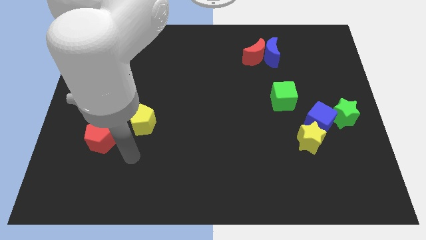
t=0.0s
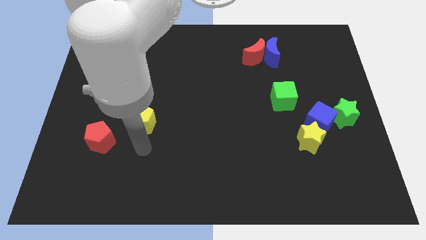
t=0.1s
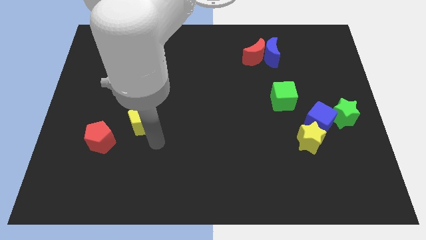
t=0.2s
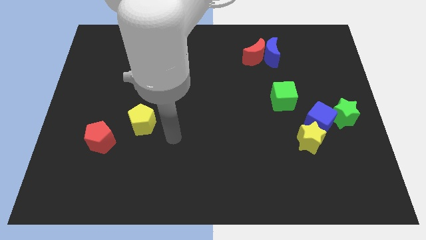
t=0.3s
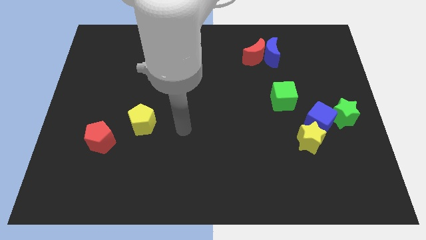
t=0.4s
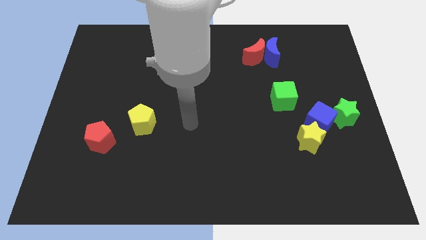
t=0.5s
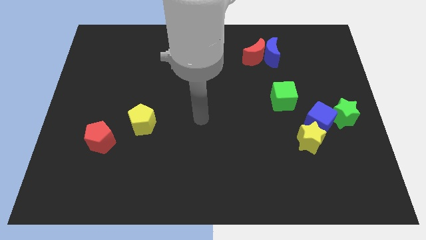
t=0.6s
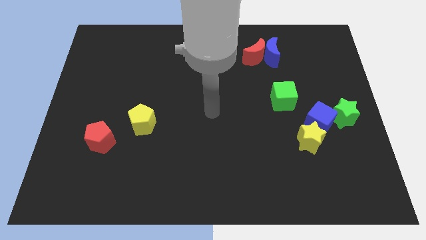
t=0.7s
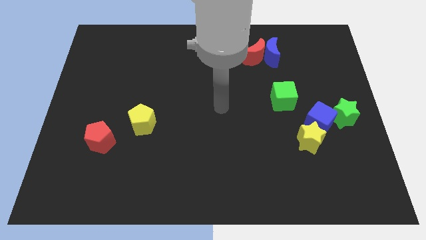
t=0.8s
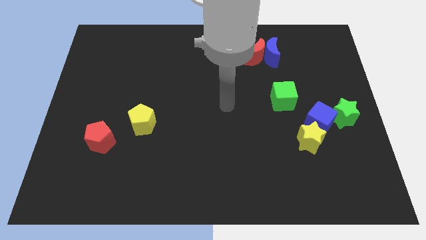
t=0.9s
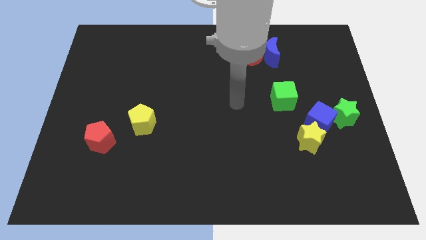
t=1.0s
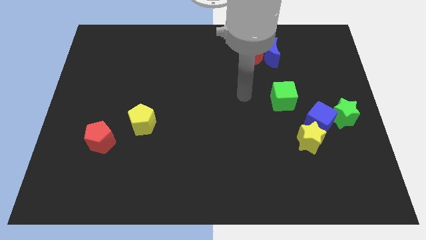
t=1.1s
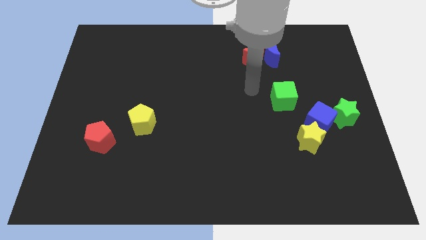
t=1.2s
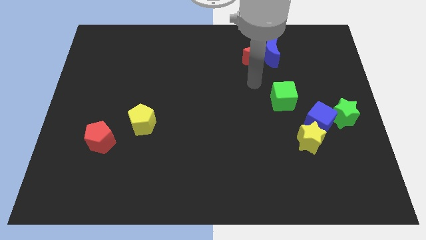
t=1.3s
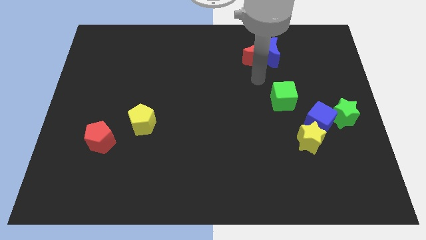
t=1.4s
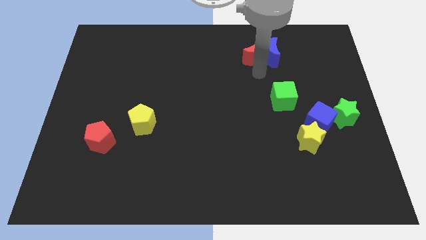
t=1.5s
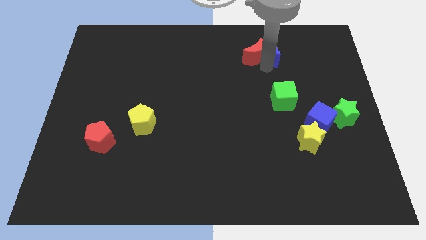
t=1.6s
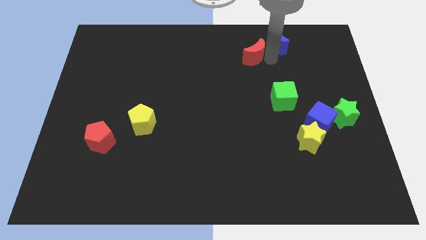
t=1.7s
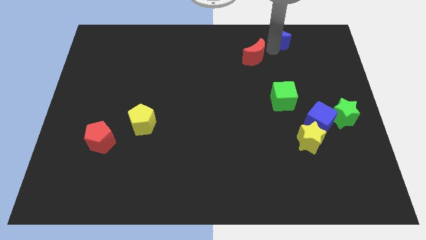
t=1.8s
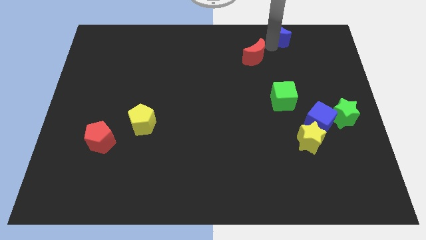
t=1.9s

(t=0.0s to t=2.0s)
pull the red moon apart from the blue moon

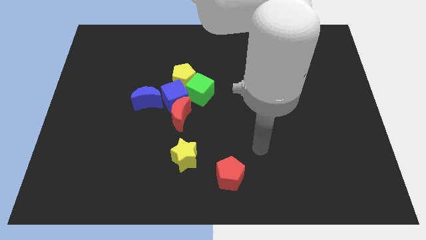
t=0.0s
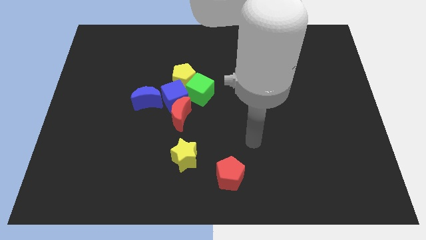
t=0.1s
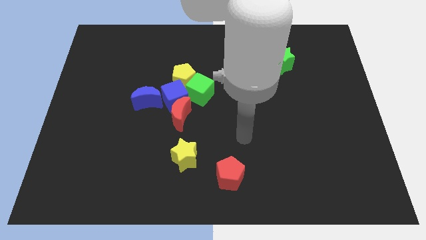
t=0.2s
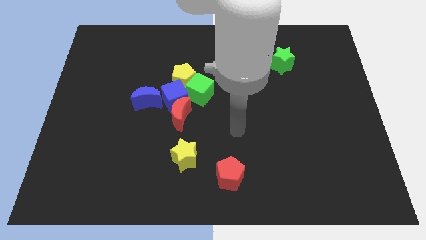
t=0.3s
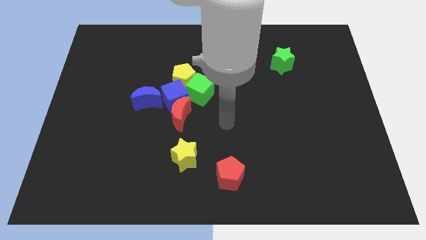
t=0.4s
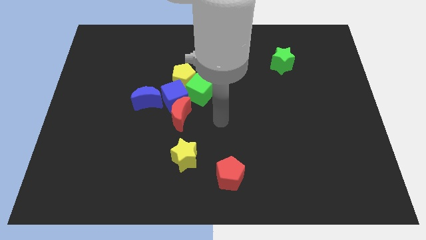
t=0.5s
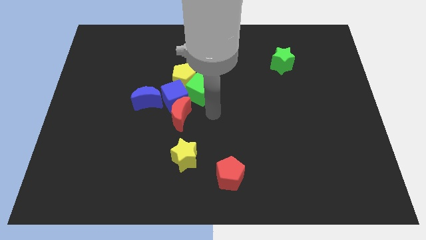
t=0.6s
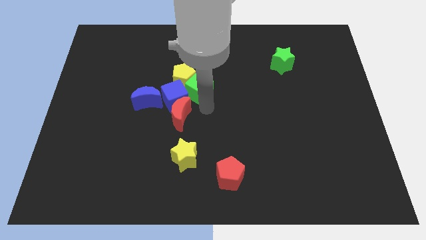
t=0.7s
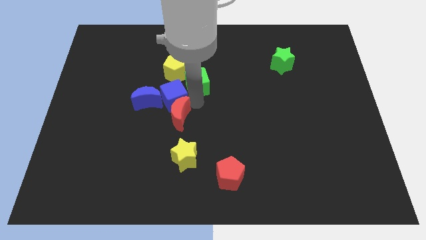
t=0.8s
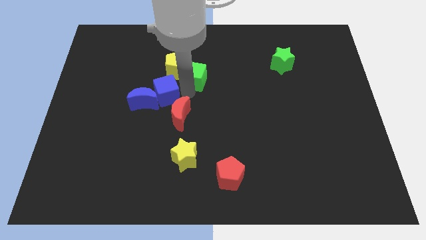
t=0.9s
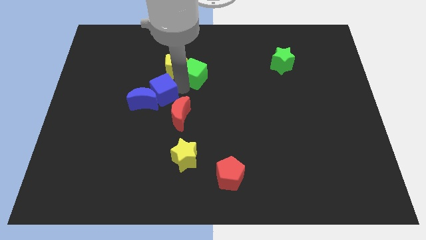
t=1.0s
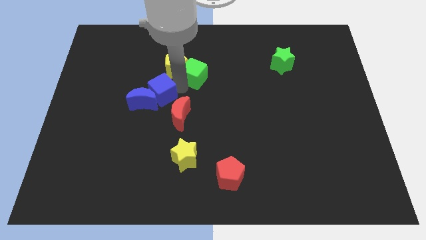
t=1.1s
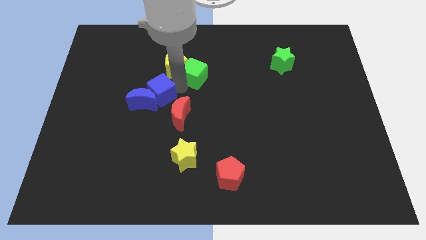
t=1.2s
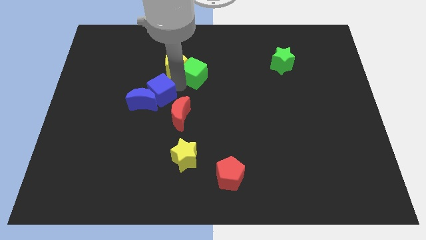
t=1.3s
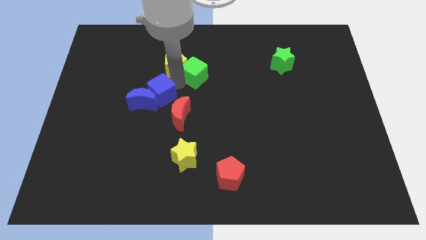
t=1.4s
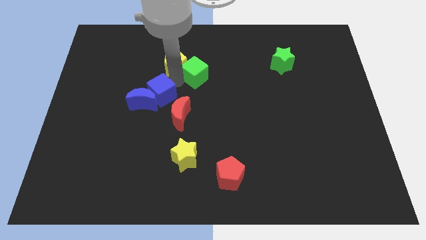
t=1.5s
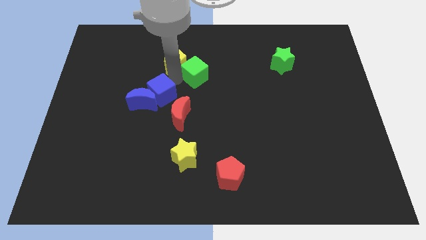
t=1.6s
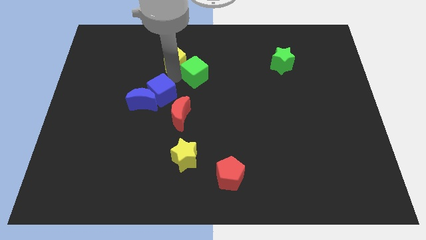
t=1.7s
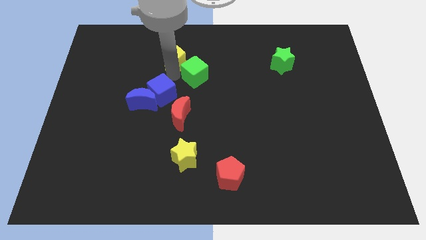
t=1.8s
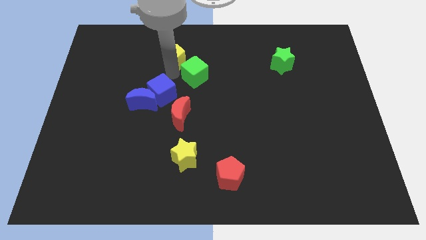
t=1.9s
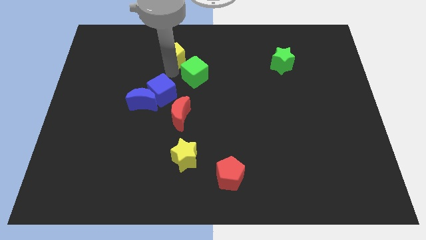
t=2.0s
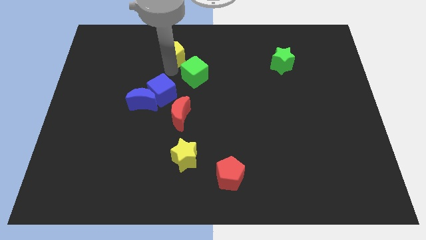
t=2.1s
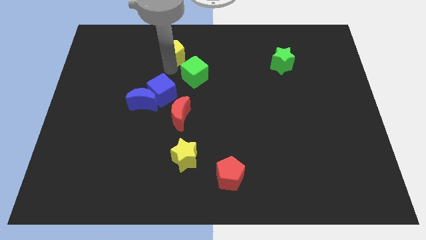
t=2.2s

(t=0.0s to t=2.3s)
move the yellow pentagon away from the green cube and blue cube

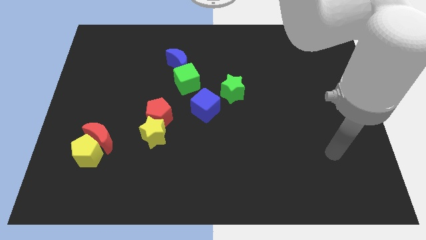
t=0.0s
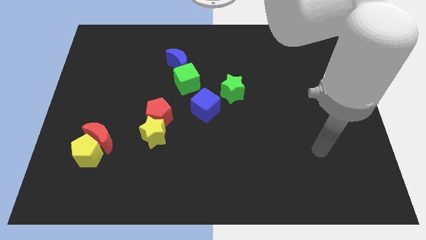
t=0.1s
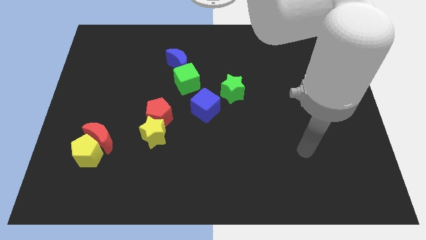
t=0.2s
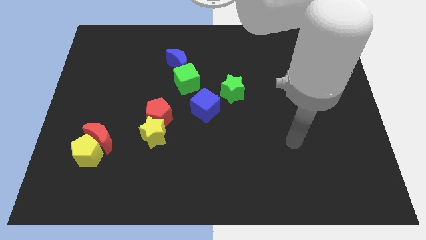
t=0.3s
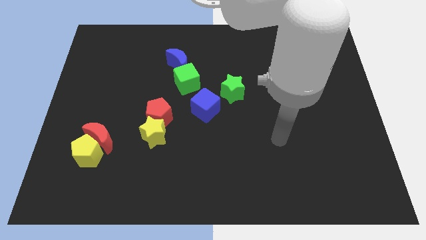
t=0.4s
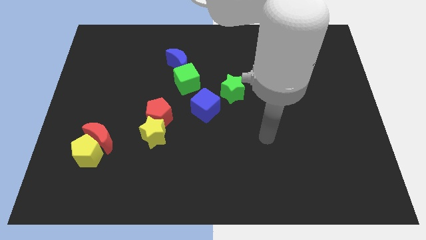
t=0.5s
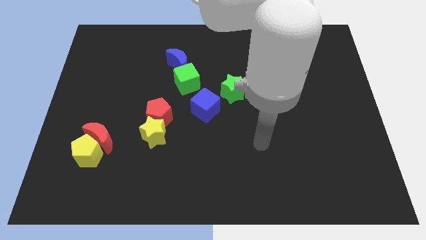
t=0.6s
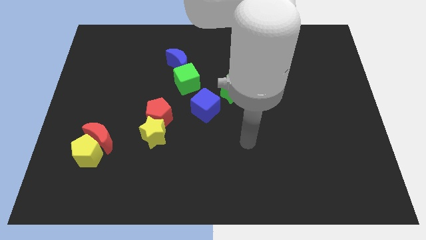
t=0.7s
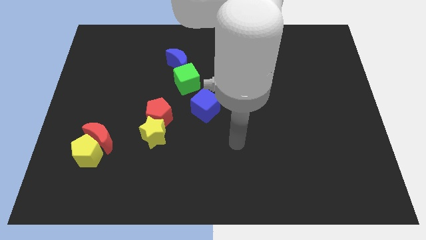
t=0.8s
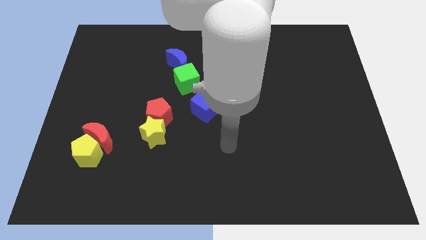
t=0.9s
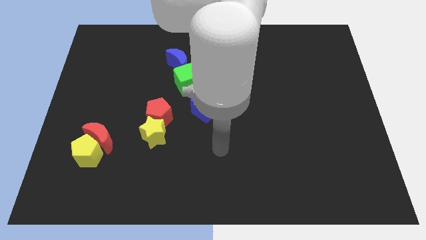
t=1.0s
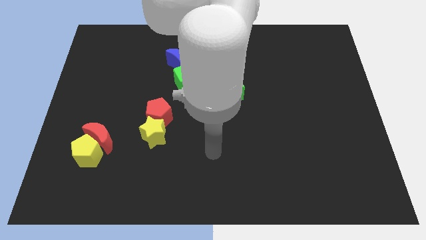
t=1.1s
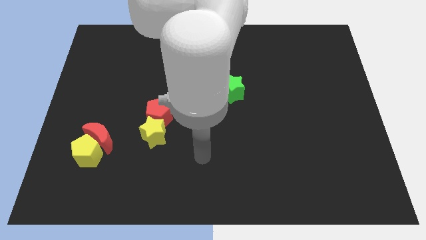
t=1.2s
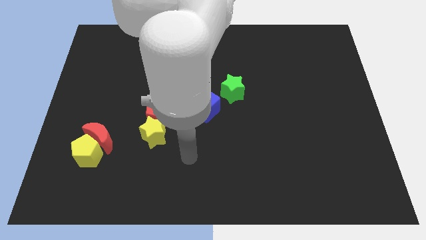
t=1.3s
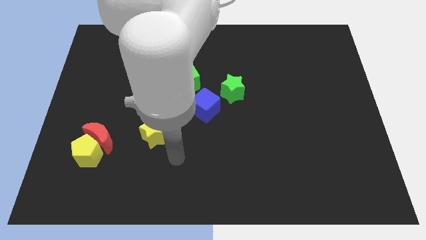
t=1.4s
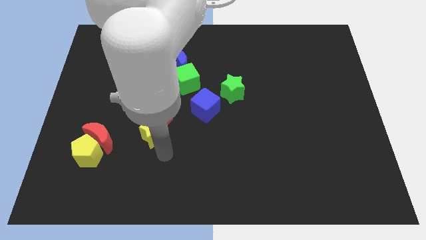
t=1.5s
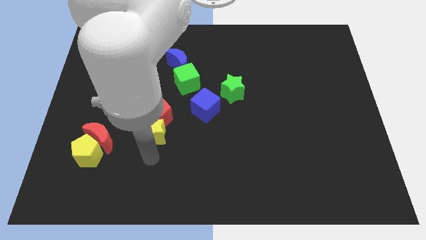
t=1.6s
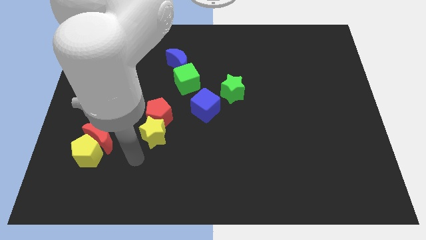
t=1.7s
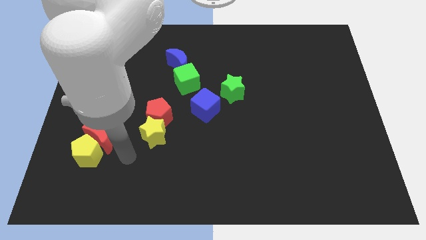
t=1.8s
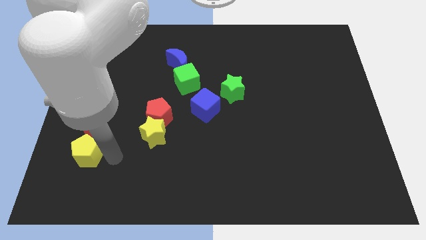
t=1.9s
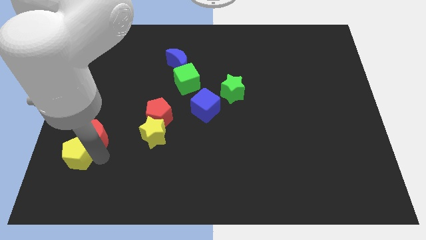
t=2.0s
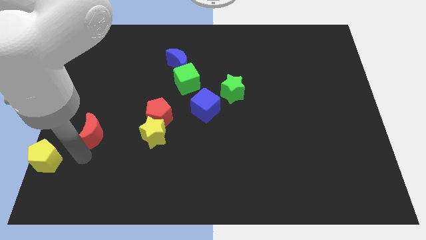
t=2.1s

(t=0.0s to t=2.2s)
pull the red moon apart from the yellow pentagon

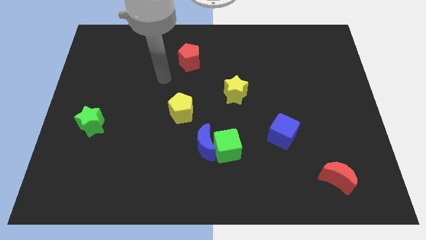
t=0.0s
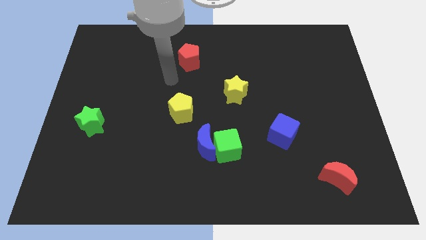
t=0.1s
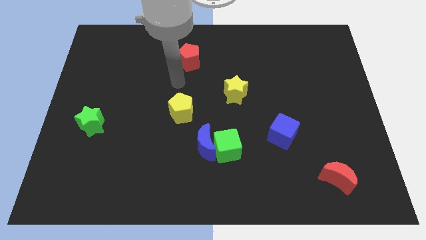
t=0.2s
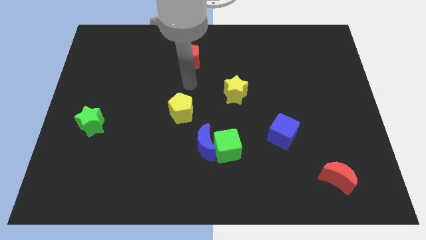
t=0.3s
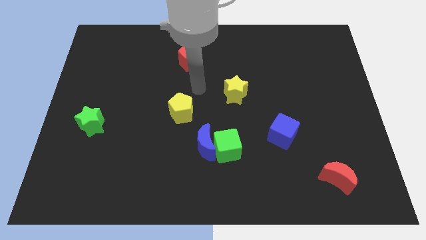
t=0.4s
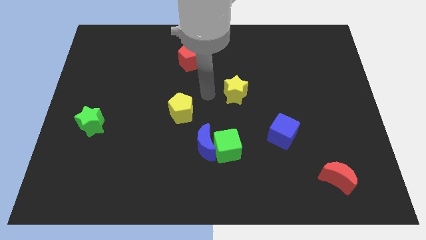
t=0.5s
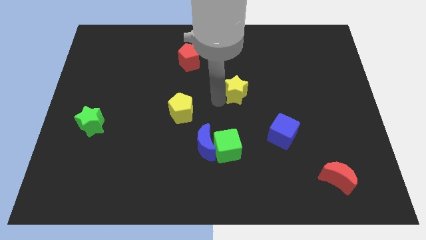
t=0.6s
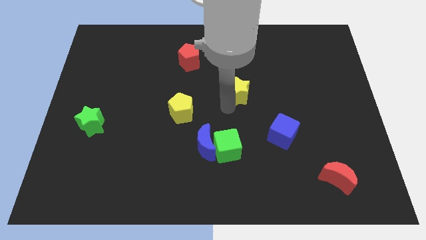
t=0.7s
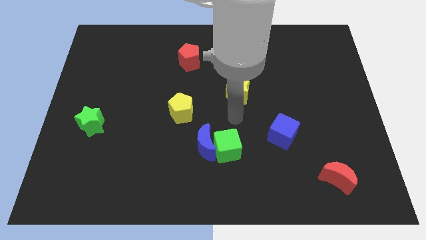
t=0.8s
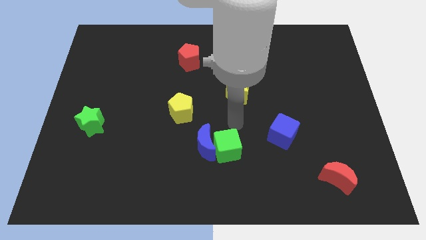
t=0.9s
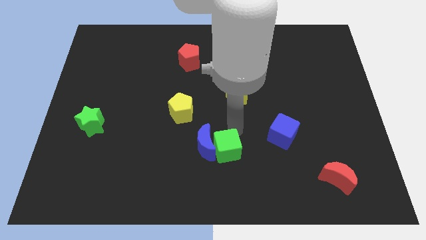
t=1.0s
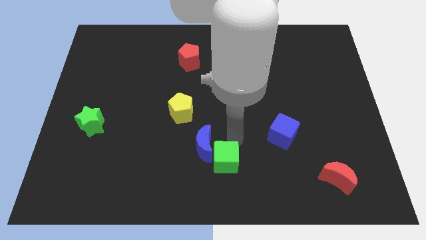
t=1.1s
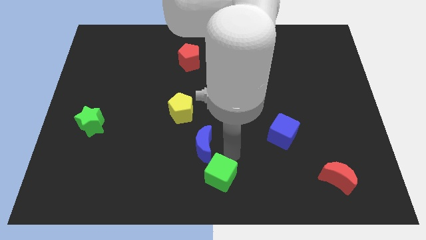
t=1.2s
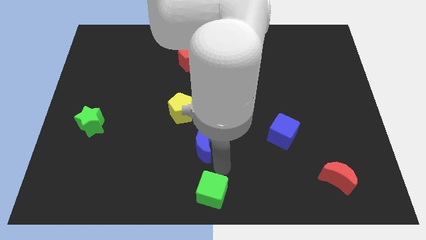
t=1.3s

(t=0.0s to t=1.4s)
pull the blue moon apart from the green cube

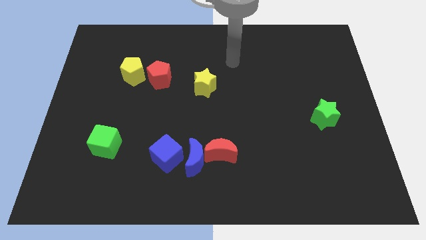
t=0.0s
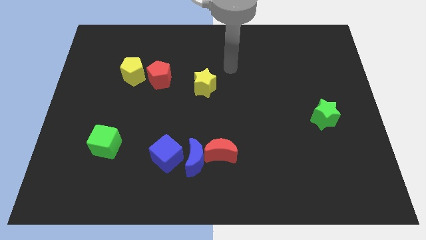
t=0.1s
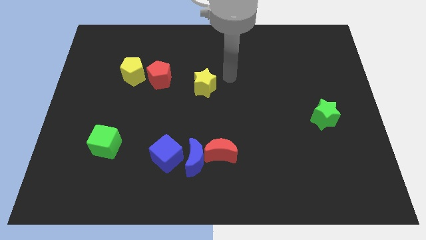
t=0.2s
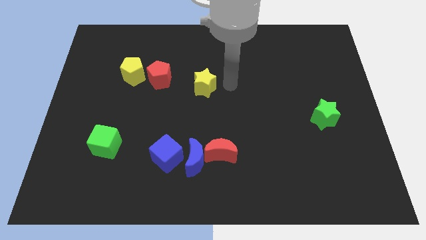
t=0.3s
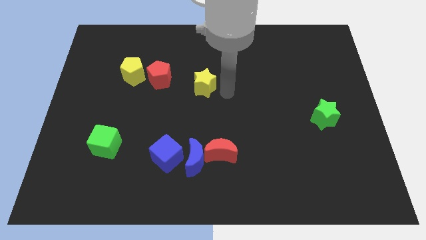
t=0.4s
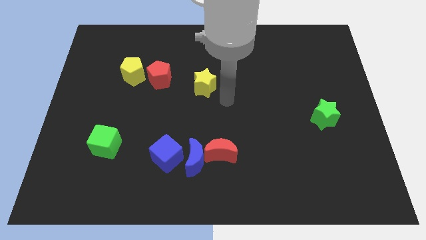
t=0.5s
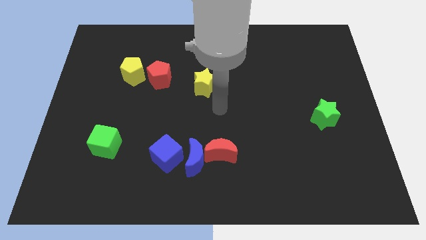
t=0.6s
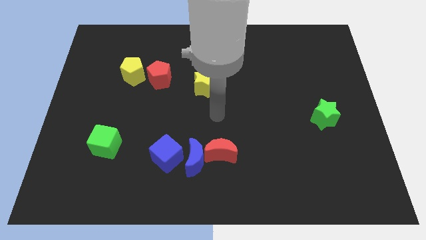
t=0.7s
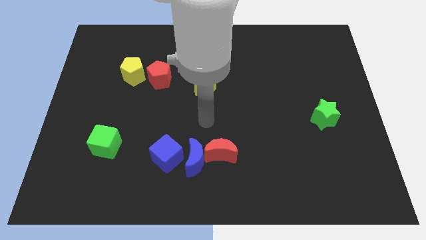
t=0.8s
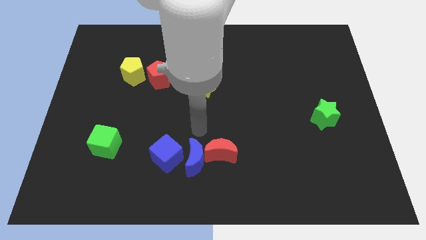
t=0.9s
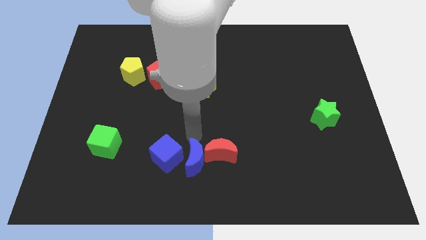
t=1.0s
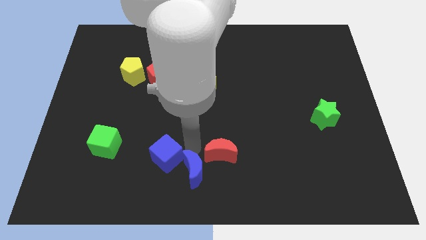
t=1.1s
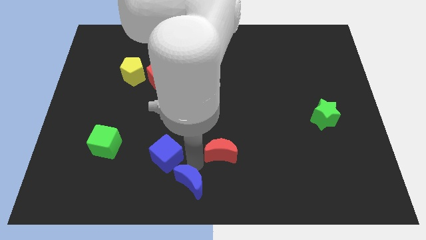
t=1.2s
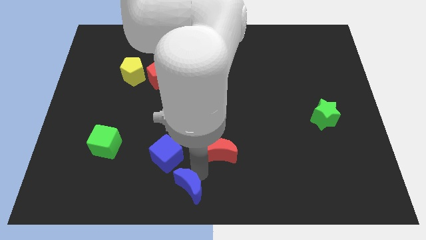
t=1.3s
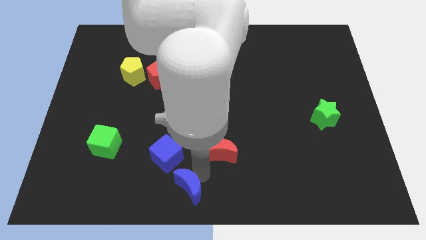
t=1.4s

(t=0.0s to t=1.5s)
separate the red moon from the blue moon
